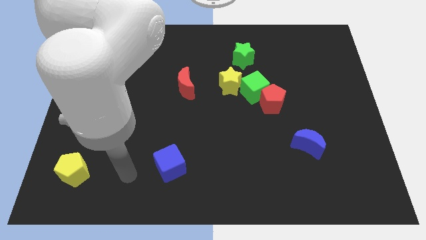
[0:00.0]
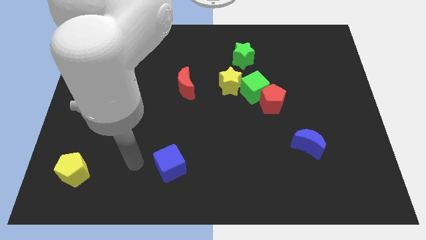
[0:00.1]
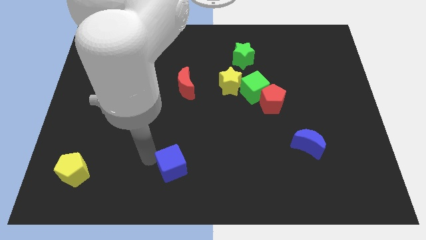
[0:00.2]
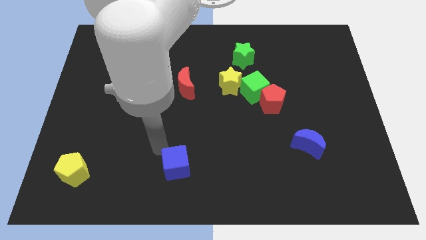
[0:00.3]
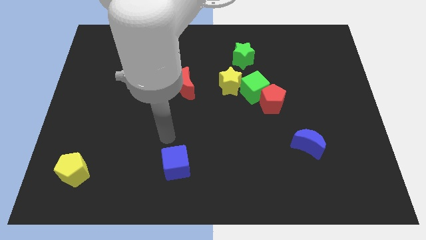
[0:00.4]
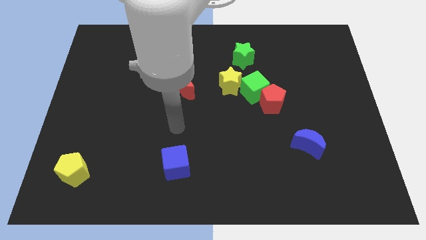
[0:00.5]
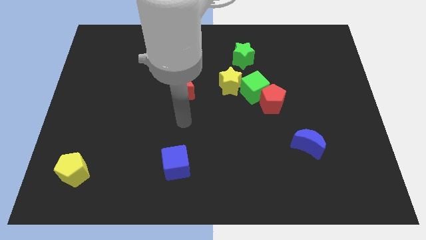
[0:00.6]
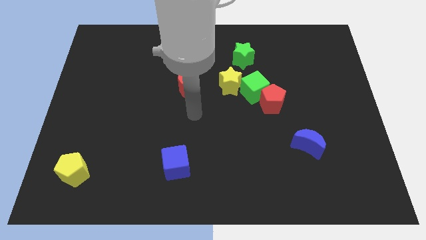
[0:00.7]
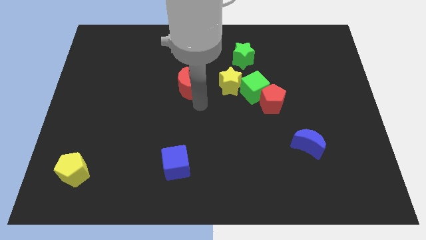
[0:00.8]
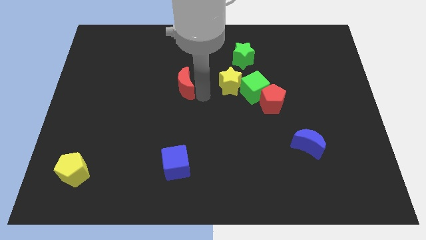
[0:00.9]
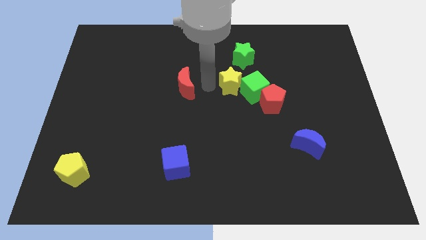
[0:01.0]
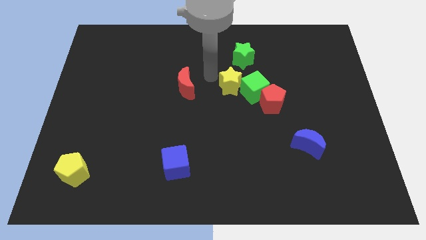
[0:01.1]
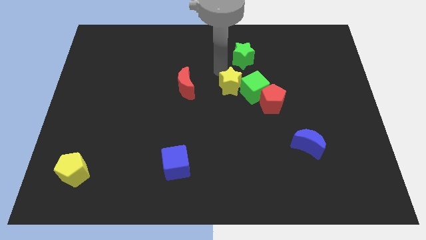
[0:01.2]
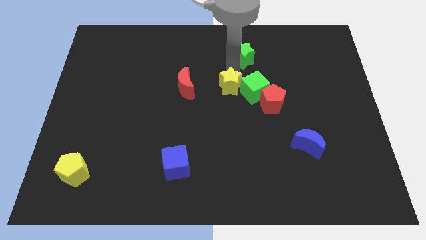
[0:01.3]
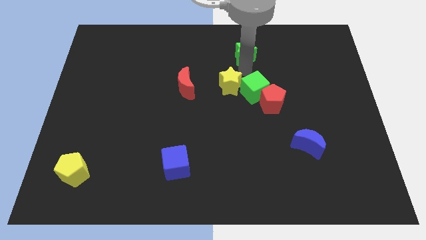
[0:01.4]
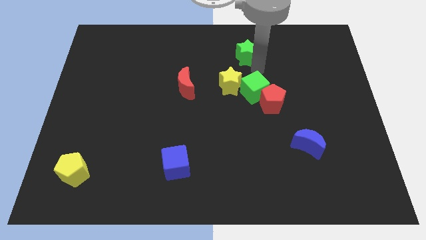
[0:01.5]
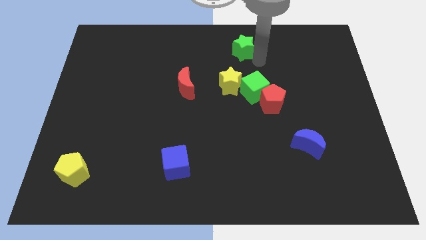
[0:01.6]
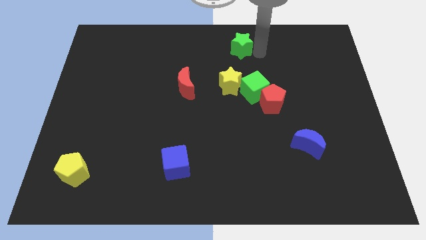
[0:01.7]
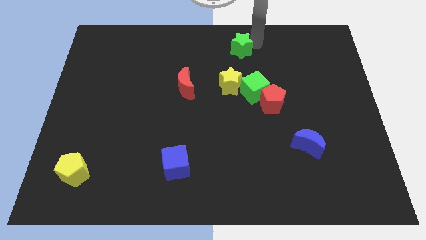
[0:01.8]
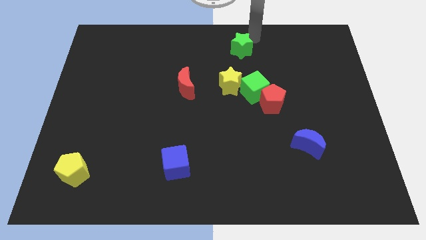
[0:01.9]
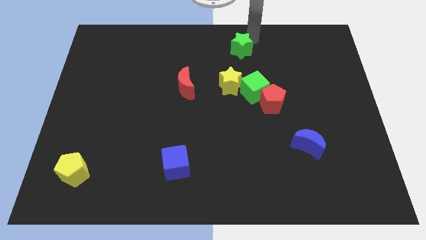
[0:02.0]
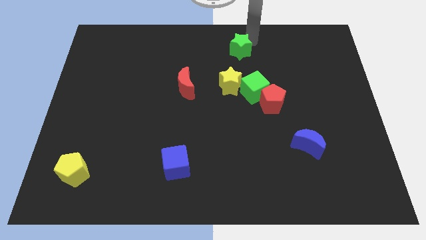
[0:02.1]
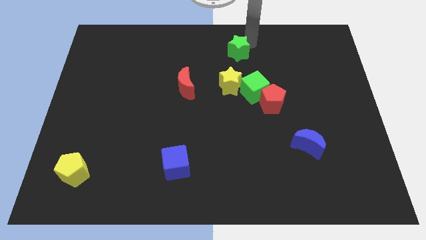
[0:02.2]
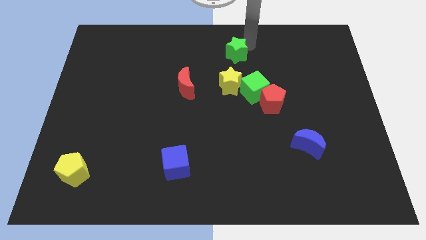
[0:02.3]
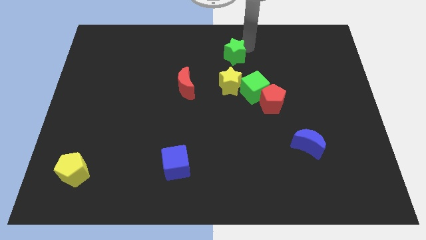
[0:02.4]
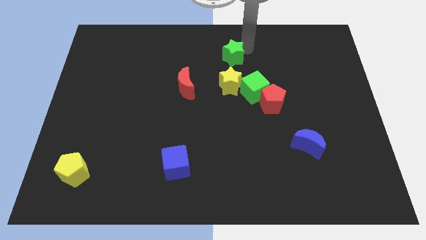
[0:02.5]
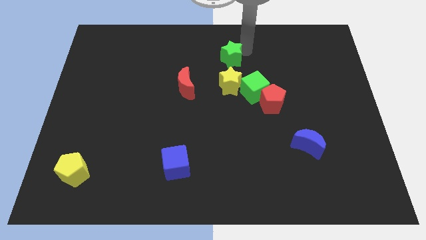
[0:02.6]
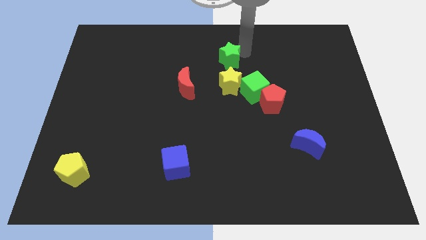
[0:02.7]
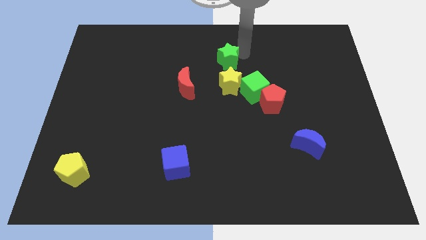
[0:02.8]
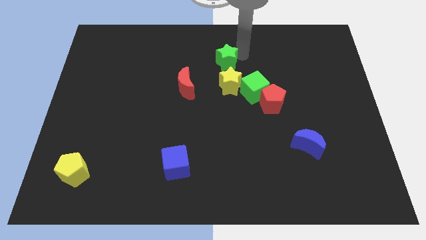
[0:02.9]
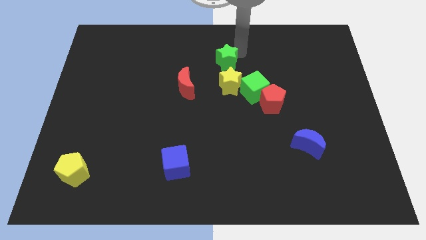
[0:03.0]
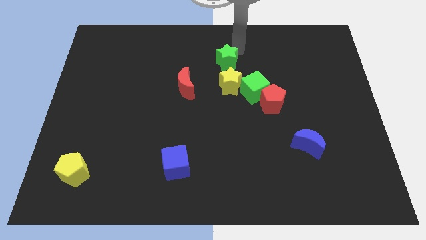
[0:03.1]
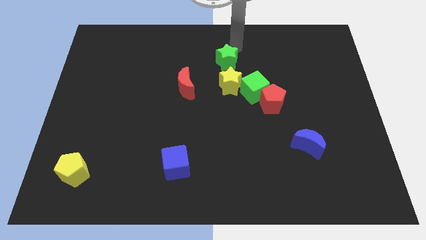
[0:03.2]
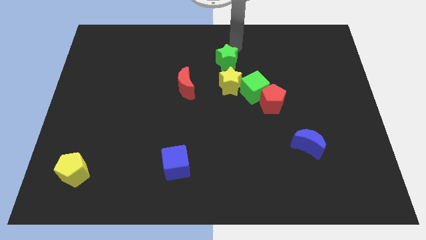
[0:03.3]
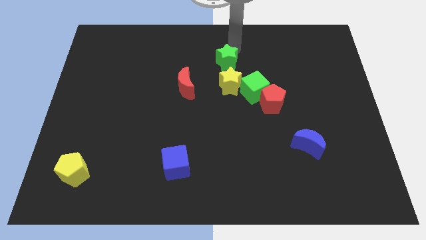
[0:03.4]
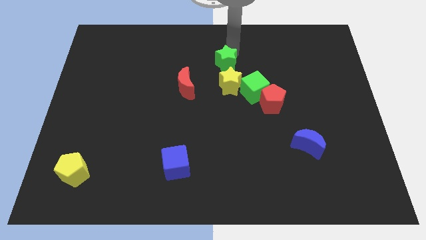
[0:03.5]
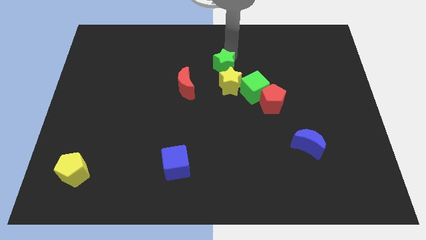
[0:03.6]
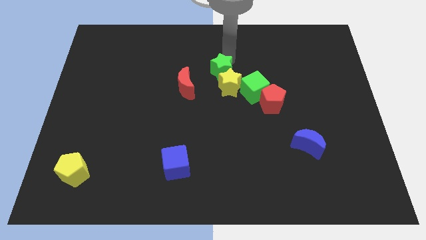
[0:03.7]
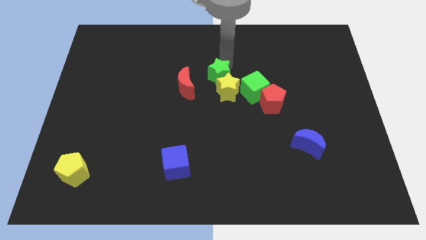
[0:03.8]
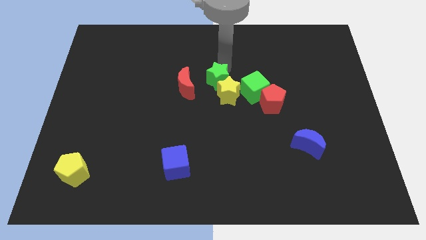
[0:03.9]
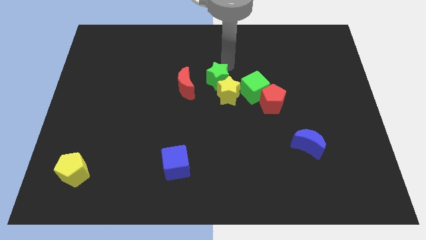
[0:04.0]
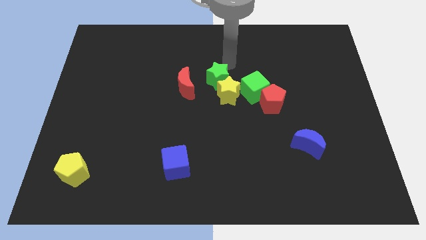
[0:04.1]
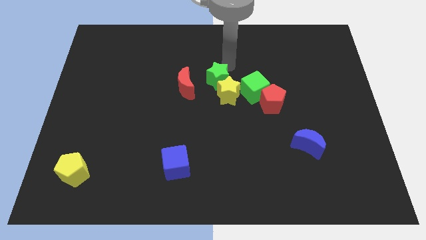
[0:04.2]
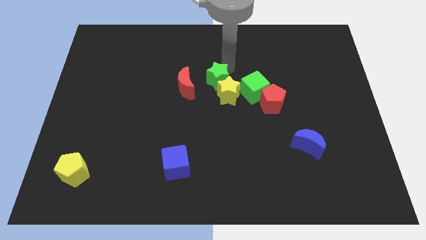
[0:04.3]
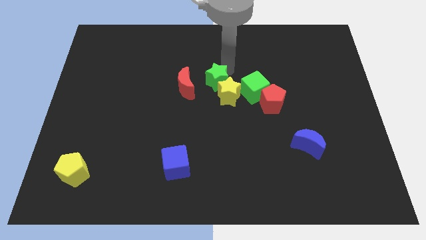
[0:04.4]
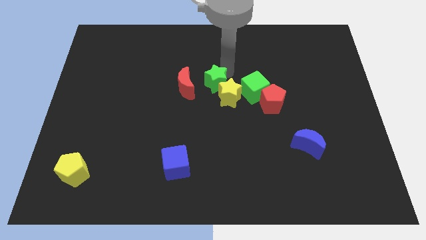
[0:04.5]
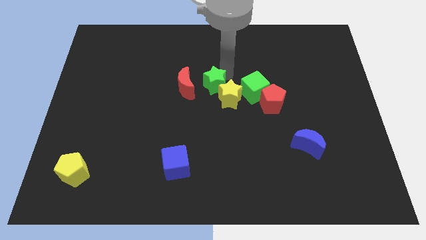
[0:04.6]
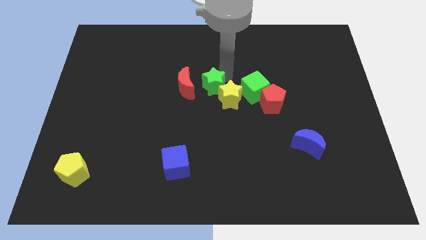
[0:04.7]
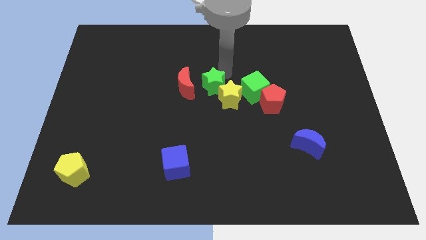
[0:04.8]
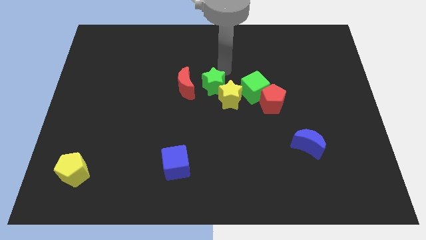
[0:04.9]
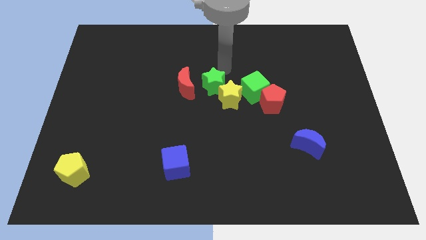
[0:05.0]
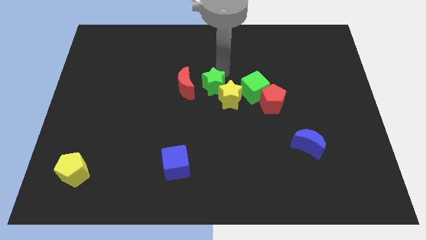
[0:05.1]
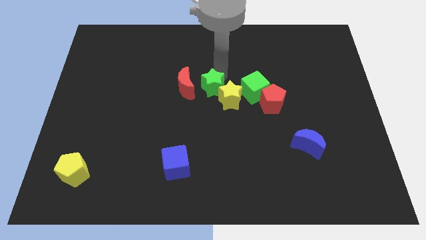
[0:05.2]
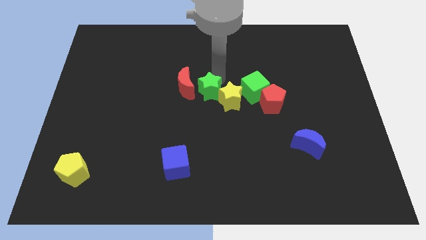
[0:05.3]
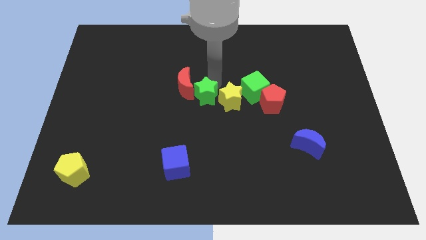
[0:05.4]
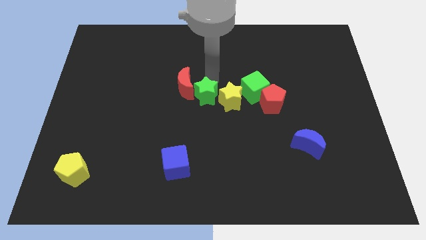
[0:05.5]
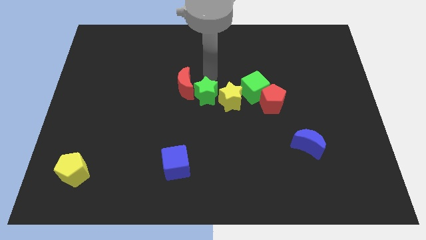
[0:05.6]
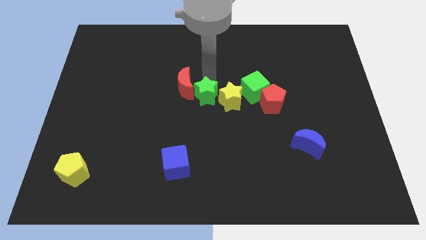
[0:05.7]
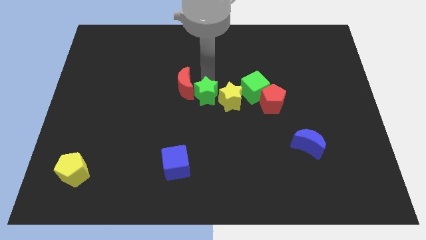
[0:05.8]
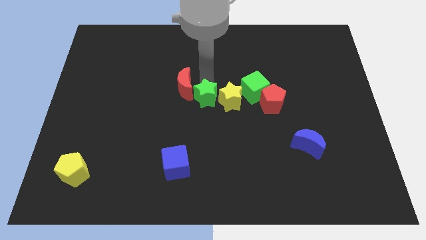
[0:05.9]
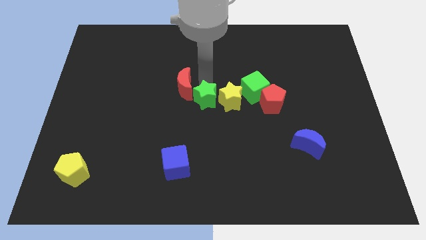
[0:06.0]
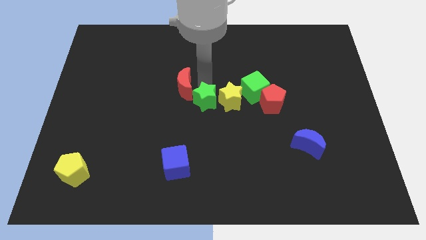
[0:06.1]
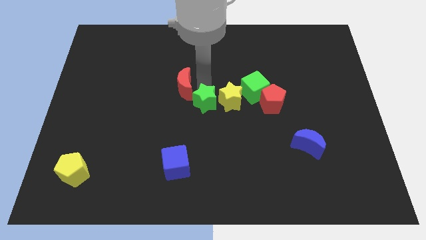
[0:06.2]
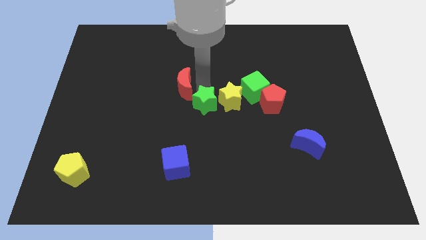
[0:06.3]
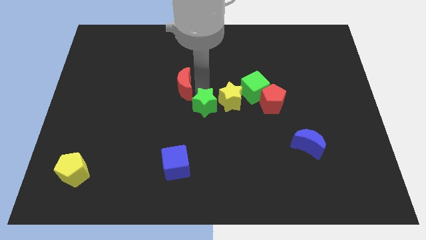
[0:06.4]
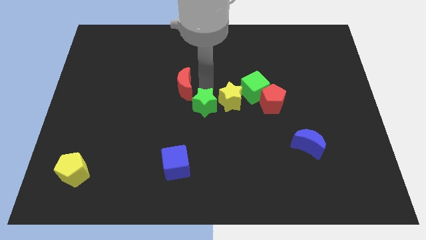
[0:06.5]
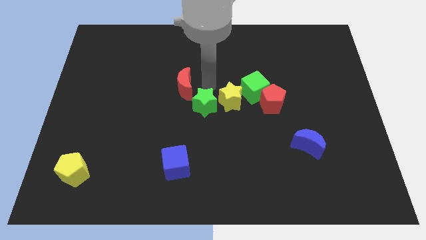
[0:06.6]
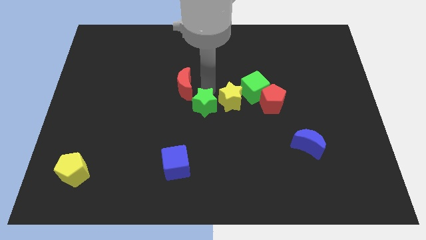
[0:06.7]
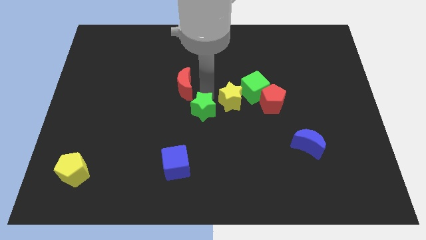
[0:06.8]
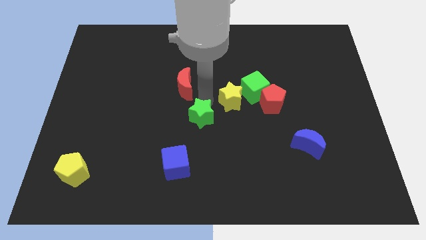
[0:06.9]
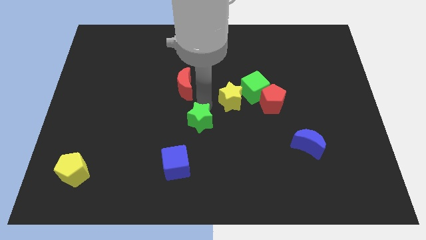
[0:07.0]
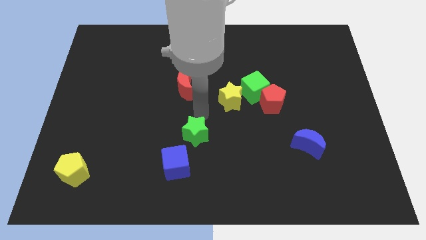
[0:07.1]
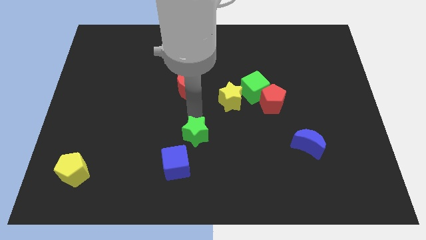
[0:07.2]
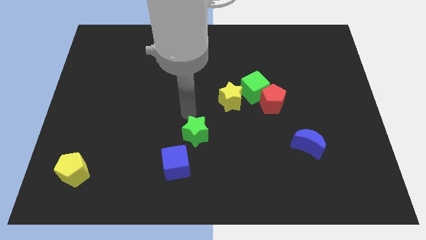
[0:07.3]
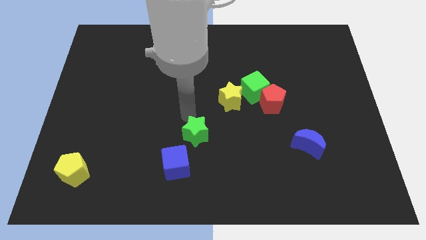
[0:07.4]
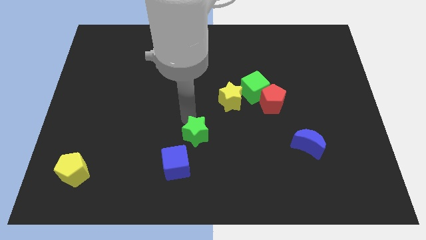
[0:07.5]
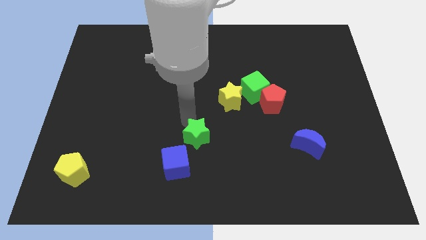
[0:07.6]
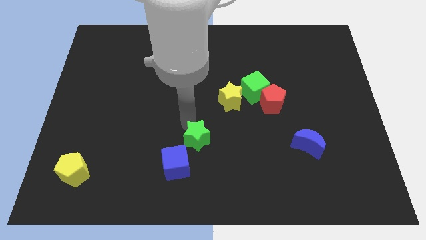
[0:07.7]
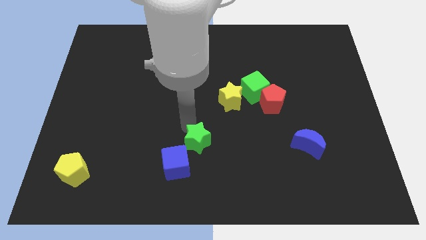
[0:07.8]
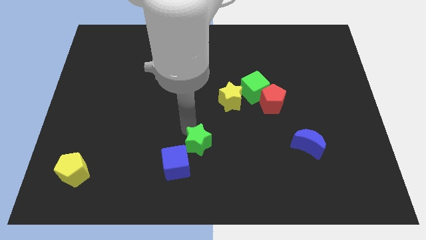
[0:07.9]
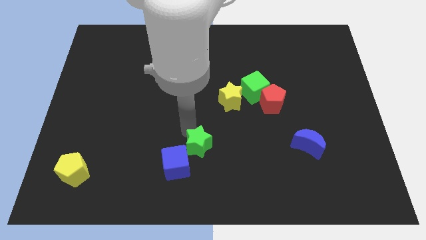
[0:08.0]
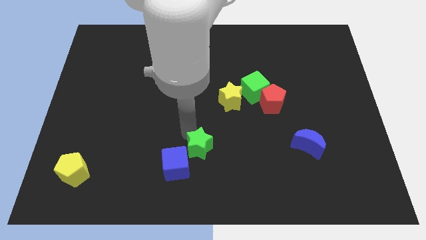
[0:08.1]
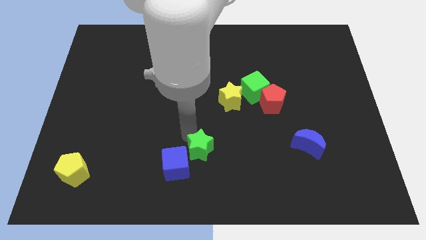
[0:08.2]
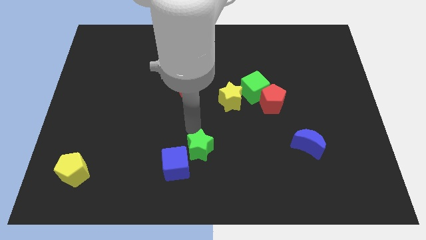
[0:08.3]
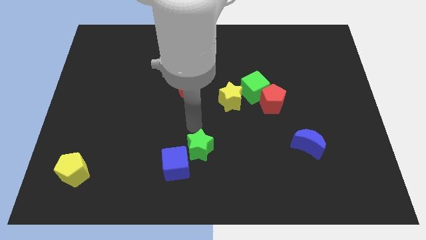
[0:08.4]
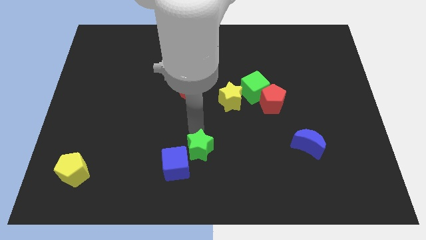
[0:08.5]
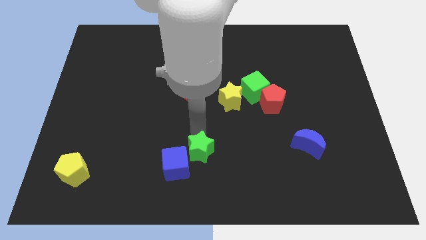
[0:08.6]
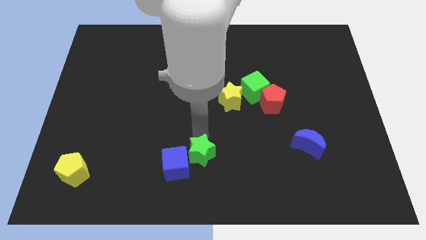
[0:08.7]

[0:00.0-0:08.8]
put the green star to the bottom
